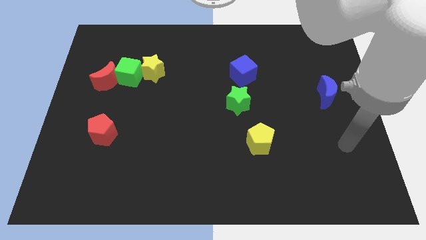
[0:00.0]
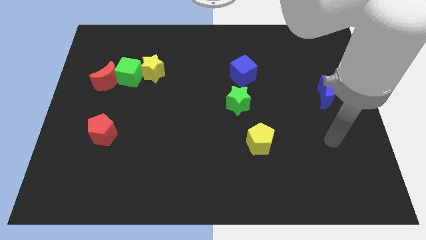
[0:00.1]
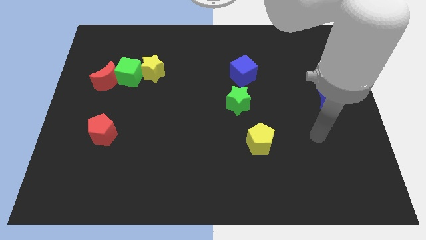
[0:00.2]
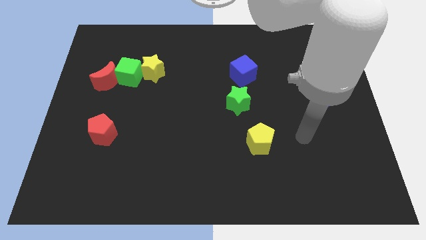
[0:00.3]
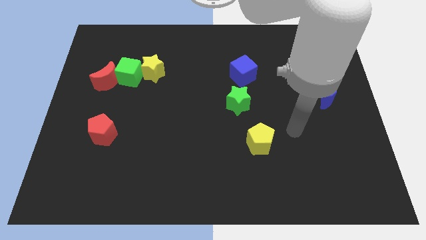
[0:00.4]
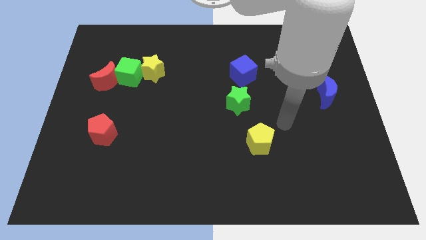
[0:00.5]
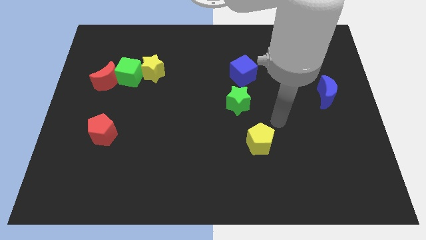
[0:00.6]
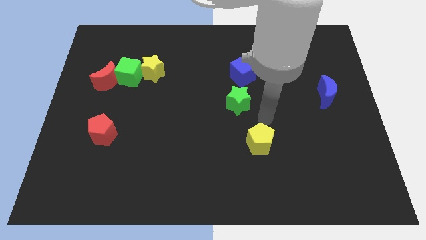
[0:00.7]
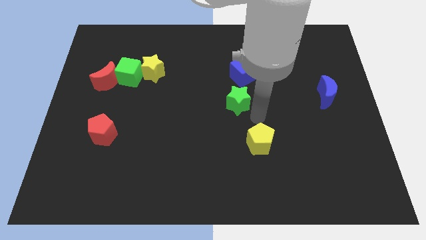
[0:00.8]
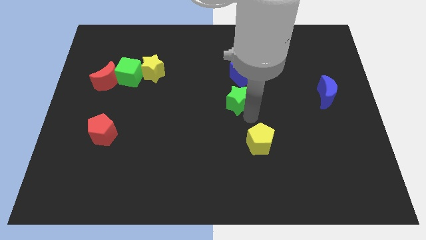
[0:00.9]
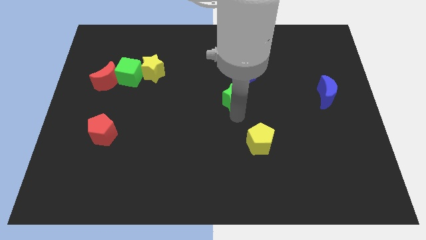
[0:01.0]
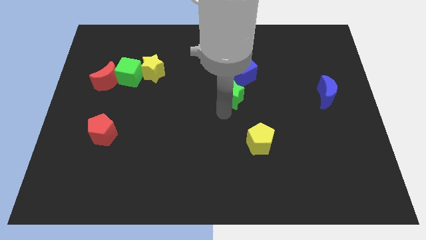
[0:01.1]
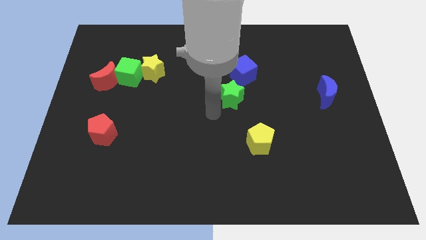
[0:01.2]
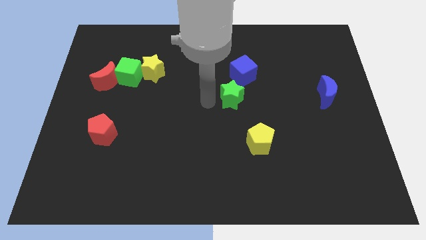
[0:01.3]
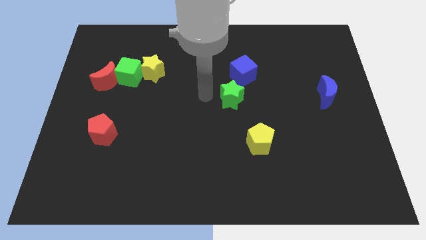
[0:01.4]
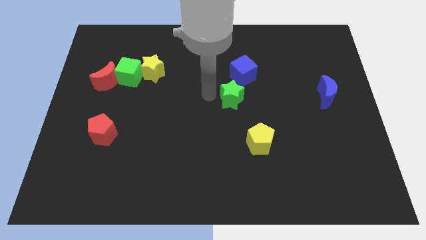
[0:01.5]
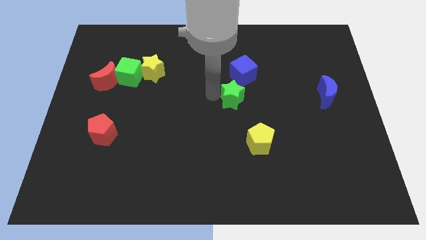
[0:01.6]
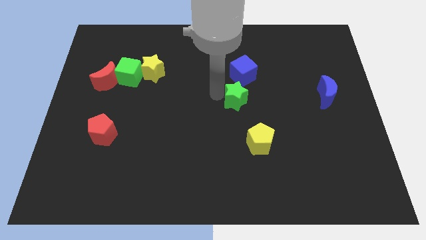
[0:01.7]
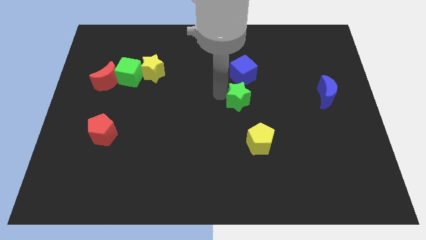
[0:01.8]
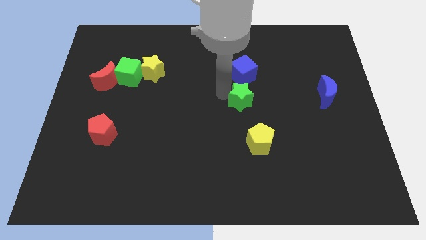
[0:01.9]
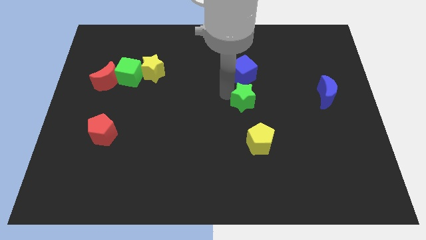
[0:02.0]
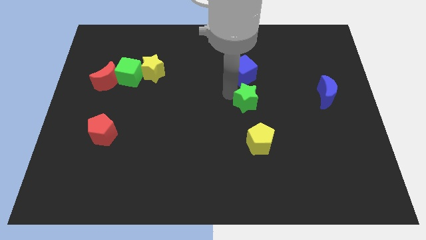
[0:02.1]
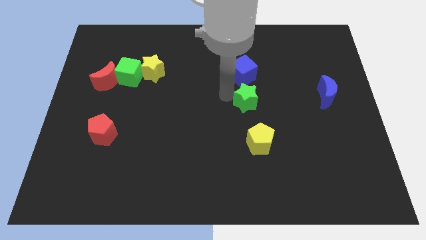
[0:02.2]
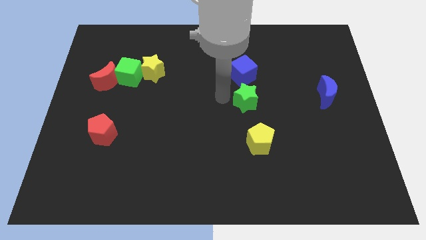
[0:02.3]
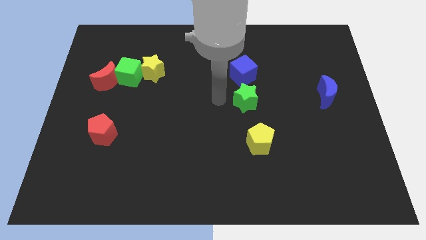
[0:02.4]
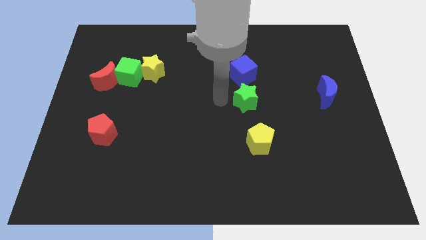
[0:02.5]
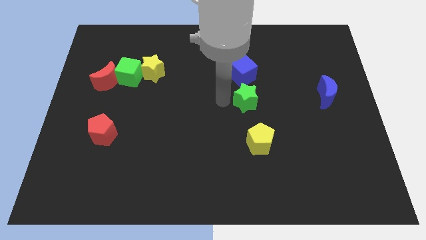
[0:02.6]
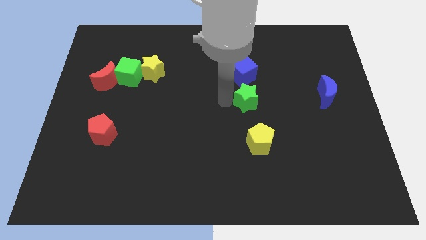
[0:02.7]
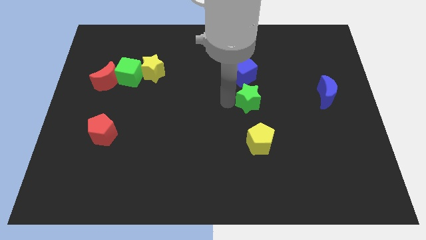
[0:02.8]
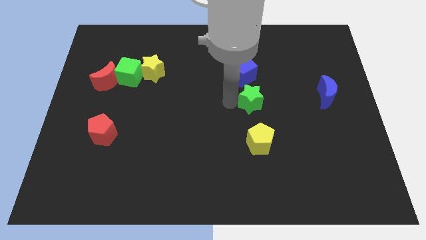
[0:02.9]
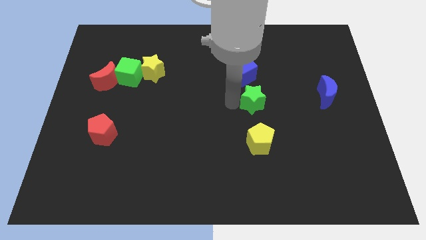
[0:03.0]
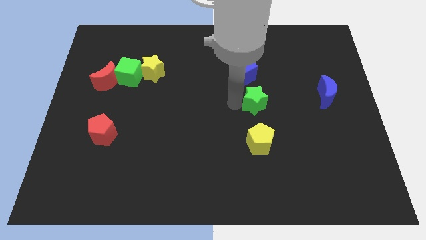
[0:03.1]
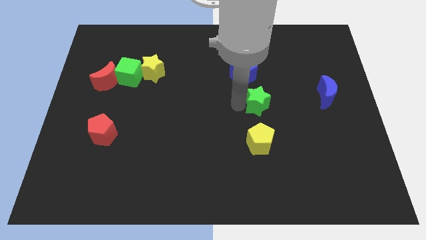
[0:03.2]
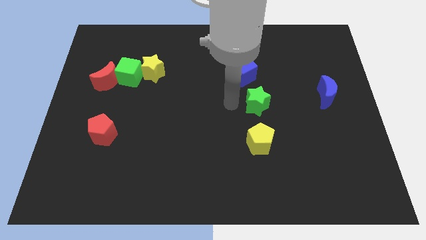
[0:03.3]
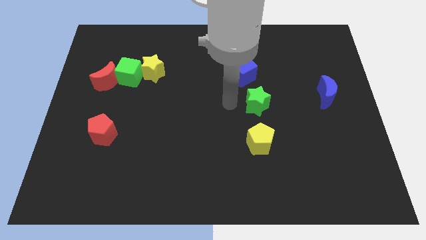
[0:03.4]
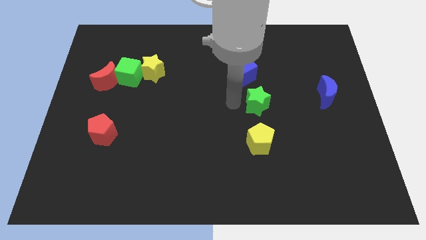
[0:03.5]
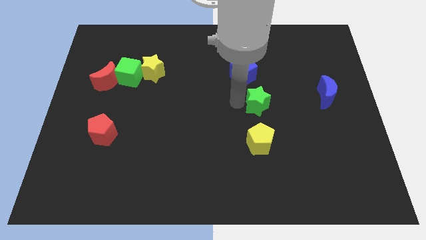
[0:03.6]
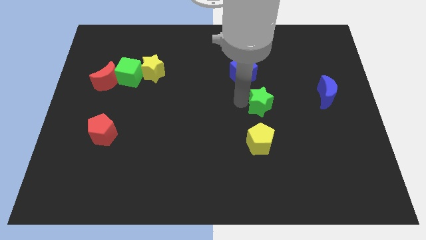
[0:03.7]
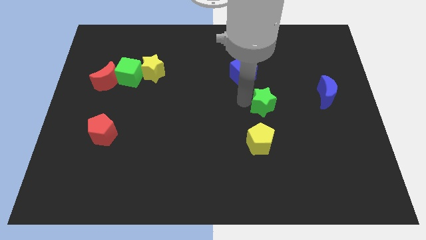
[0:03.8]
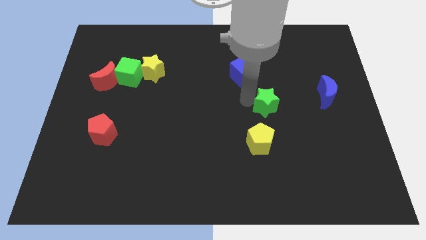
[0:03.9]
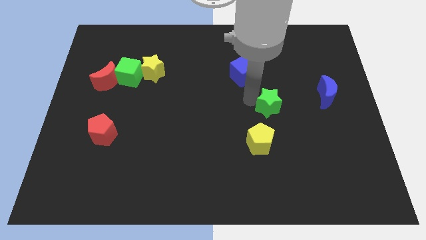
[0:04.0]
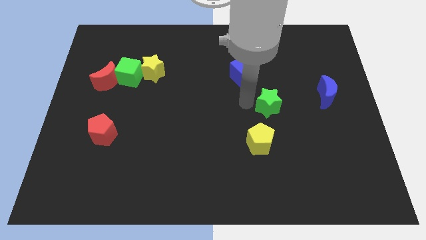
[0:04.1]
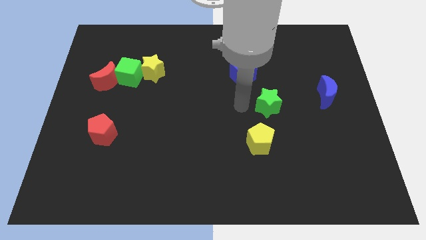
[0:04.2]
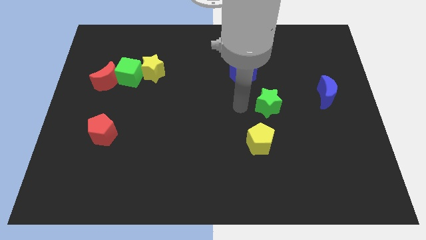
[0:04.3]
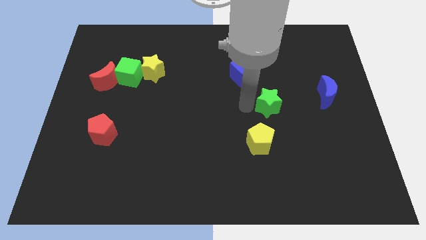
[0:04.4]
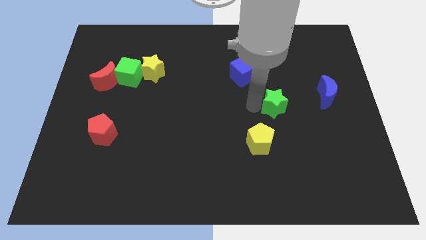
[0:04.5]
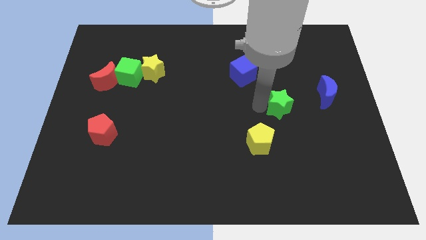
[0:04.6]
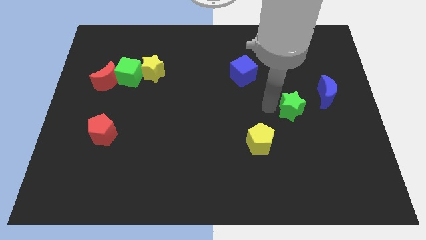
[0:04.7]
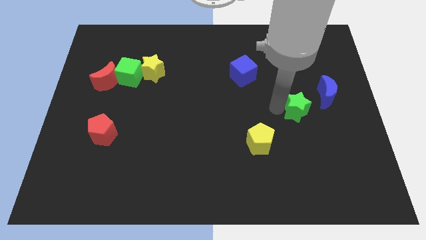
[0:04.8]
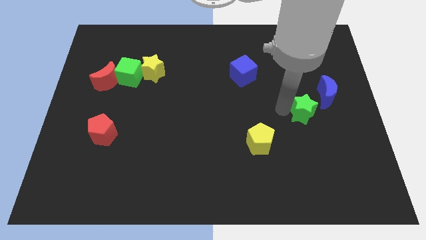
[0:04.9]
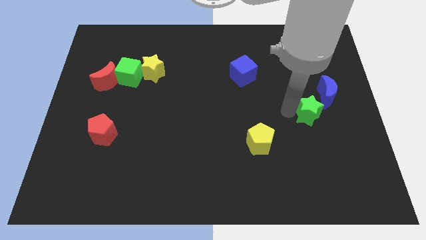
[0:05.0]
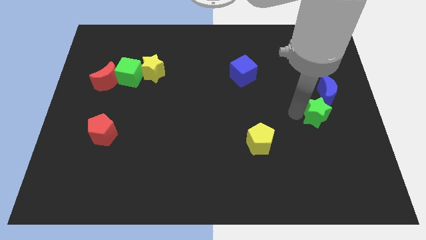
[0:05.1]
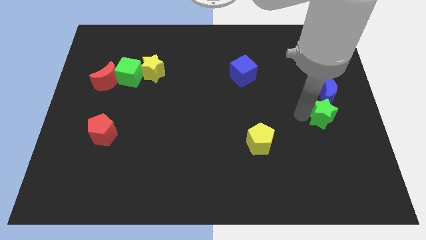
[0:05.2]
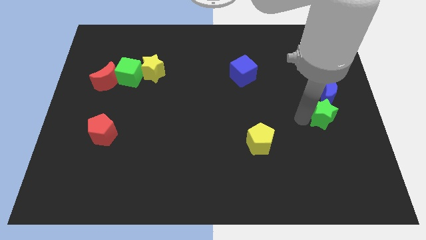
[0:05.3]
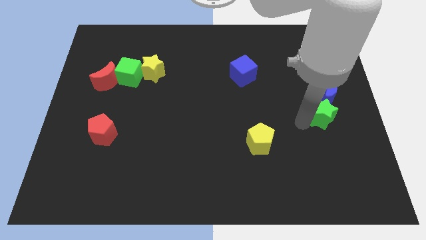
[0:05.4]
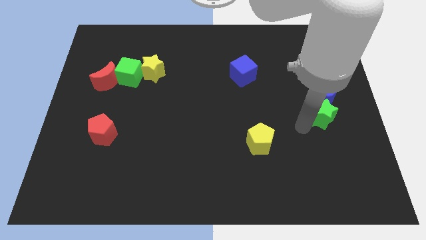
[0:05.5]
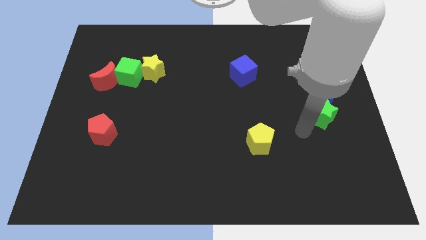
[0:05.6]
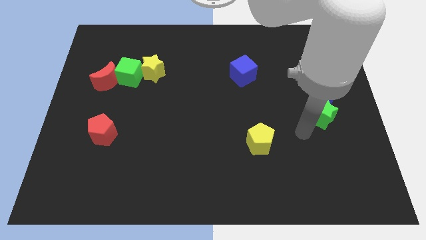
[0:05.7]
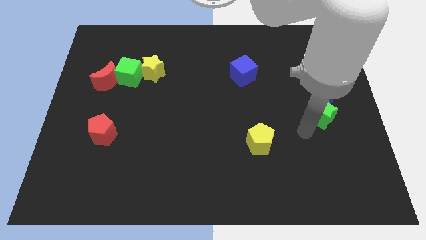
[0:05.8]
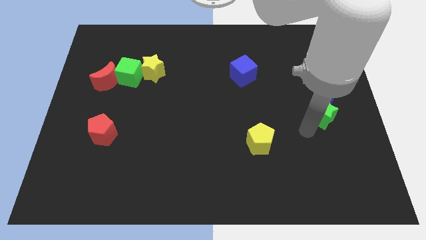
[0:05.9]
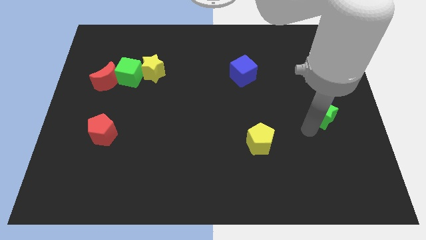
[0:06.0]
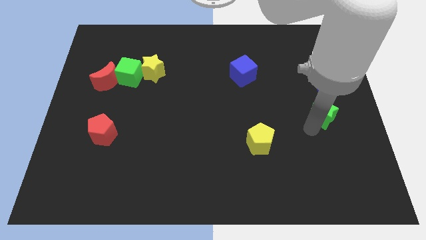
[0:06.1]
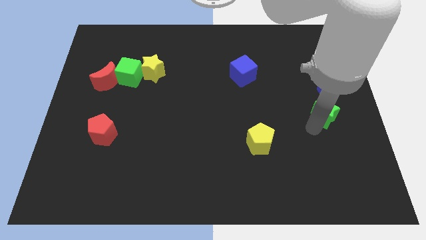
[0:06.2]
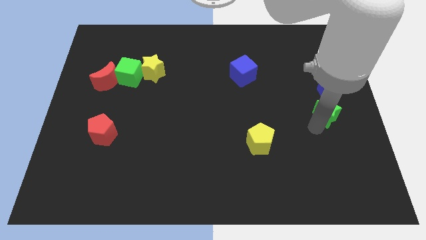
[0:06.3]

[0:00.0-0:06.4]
put the green star to the center right
